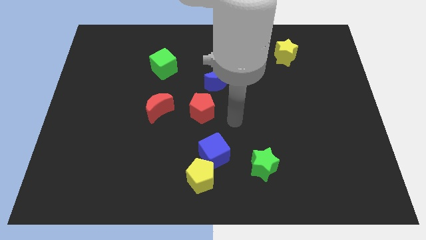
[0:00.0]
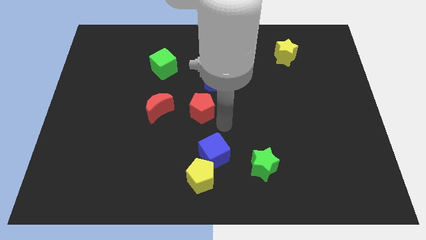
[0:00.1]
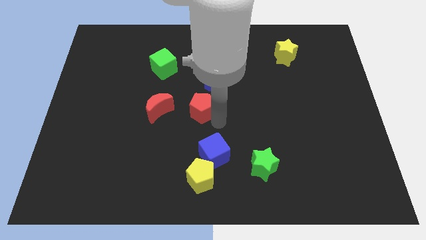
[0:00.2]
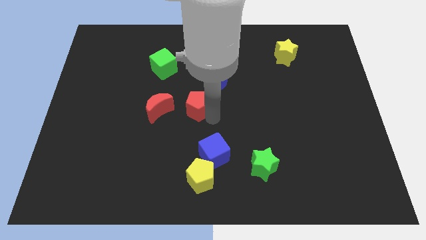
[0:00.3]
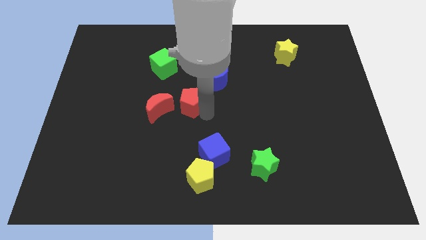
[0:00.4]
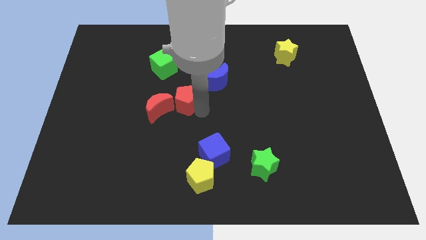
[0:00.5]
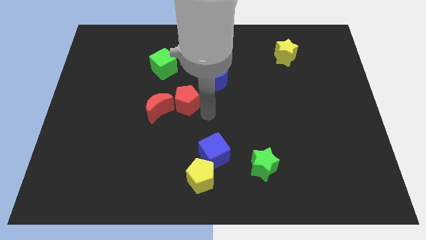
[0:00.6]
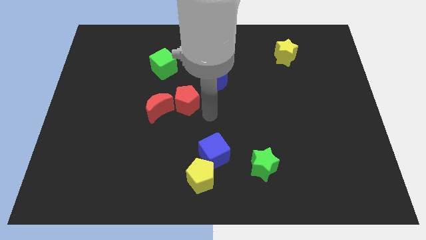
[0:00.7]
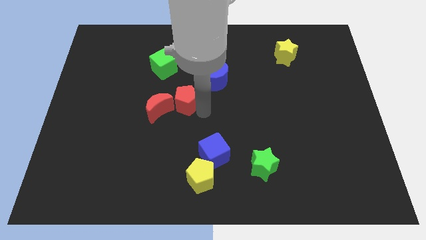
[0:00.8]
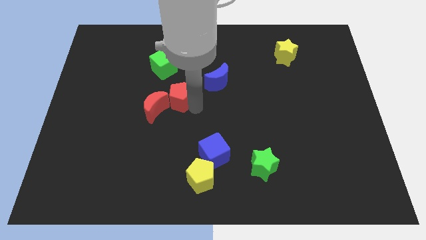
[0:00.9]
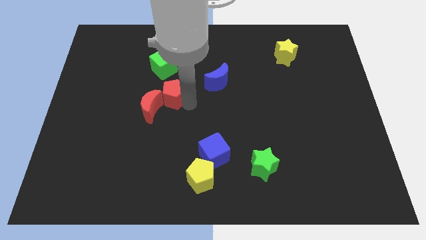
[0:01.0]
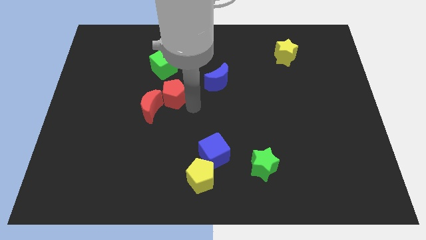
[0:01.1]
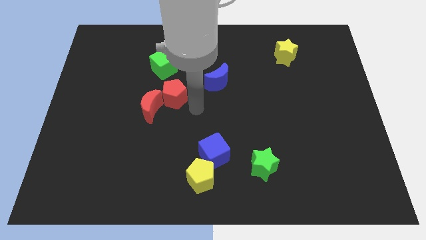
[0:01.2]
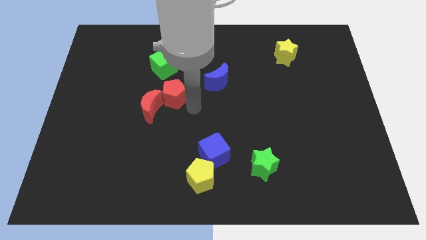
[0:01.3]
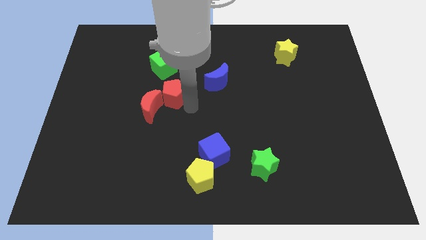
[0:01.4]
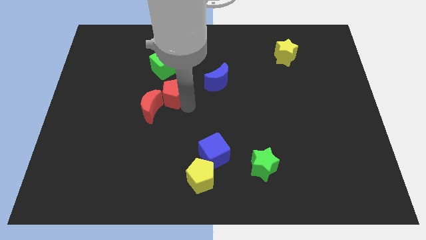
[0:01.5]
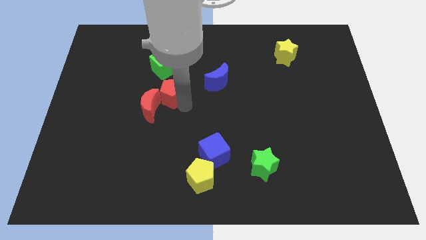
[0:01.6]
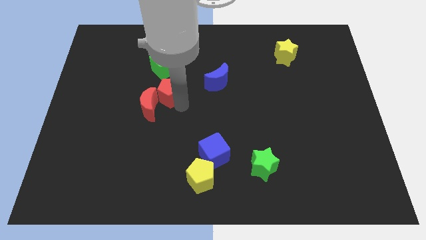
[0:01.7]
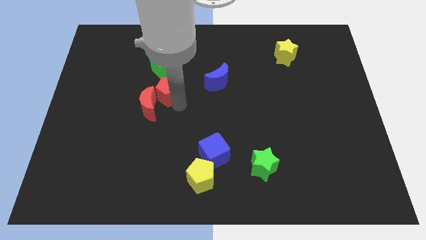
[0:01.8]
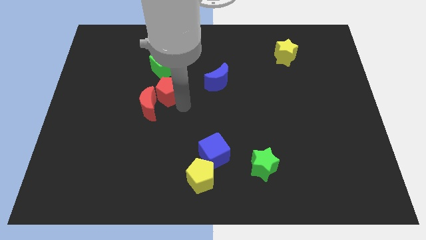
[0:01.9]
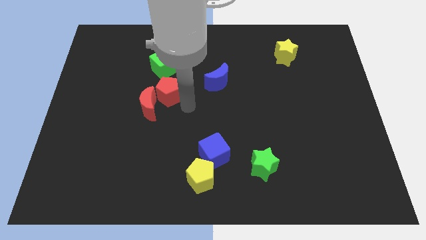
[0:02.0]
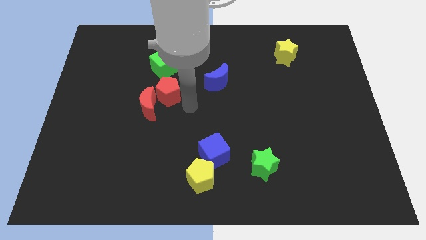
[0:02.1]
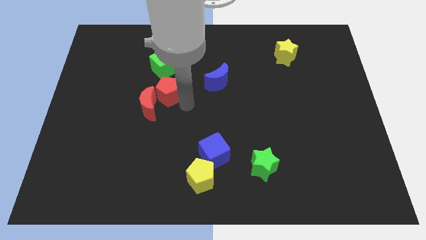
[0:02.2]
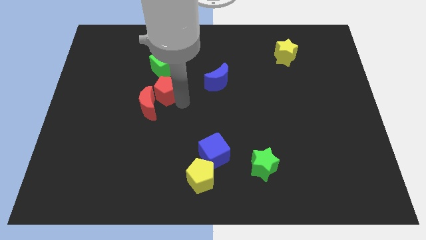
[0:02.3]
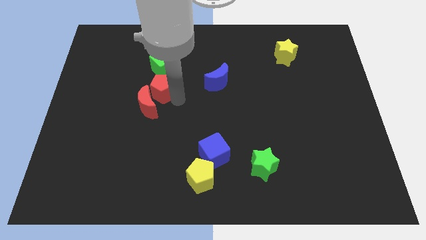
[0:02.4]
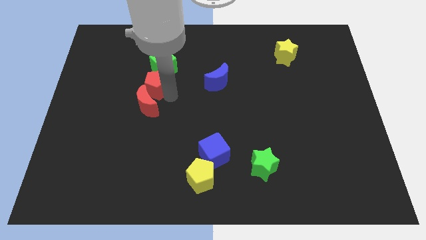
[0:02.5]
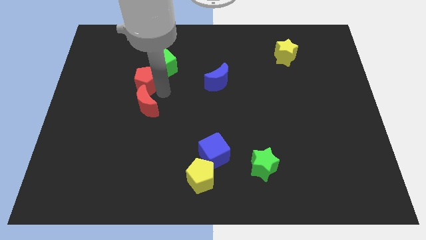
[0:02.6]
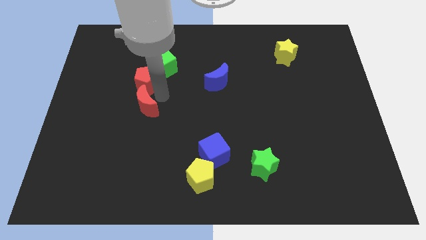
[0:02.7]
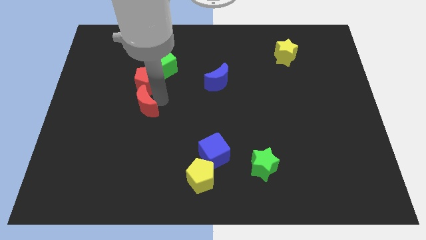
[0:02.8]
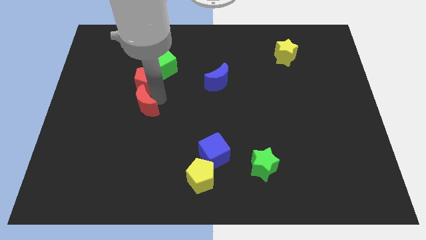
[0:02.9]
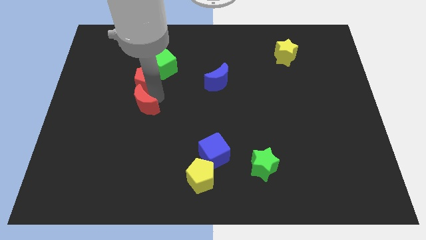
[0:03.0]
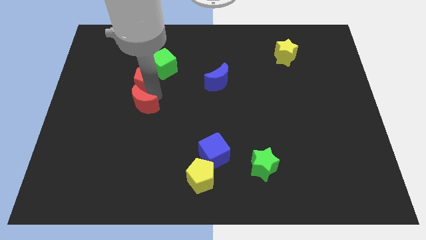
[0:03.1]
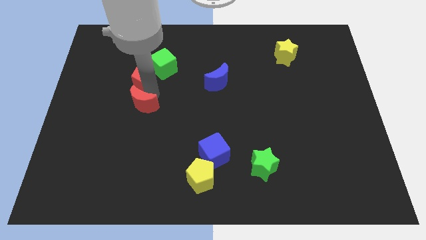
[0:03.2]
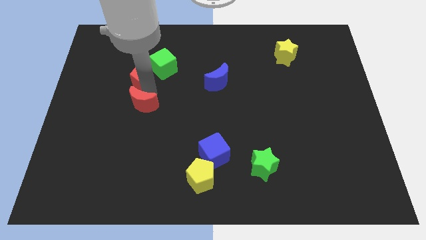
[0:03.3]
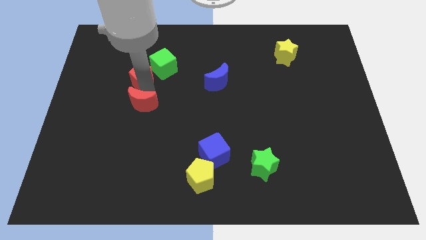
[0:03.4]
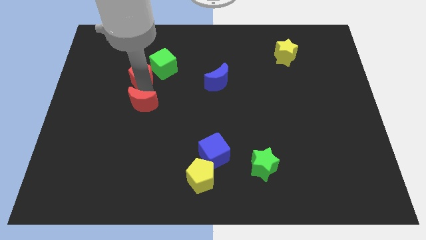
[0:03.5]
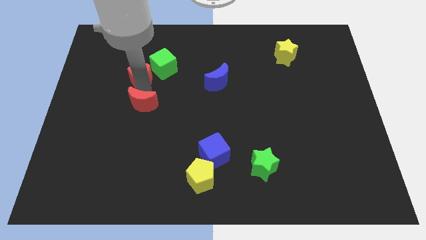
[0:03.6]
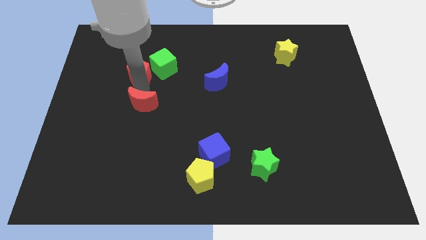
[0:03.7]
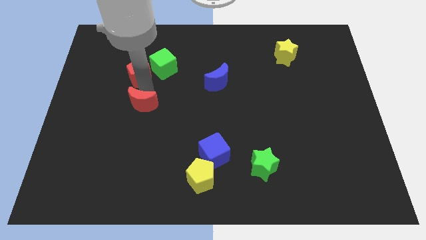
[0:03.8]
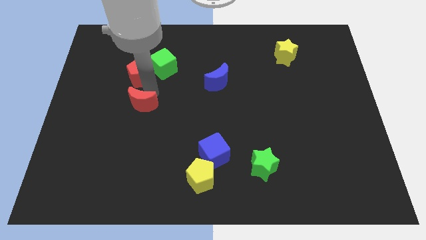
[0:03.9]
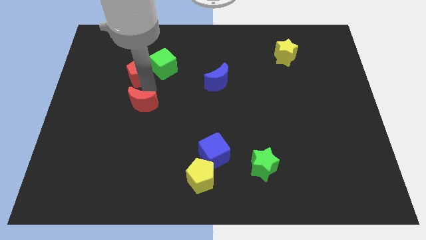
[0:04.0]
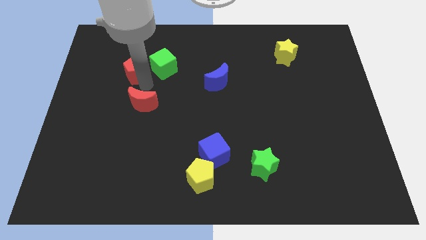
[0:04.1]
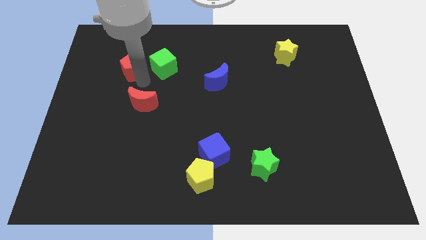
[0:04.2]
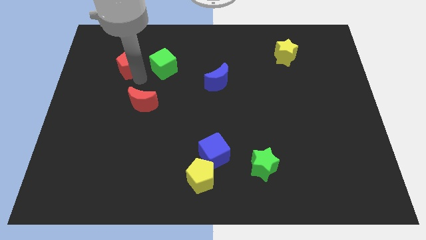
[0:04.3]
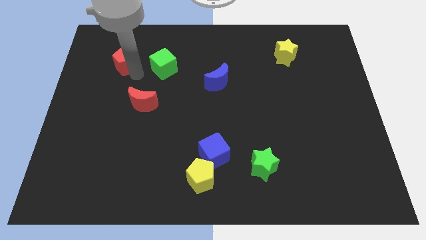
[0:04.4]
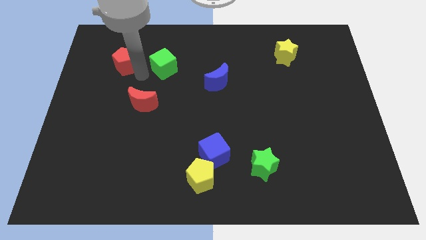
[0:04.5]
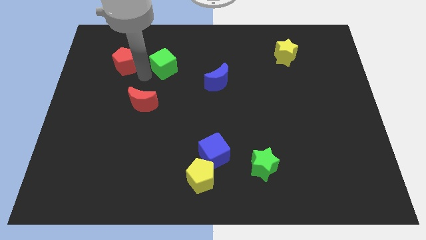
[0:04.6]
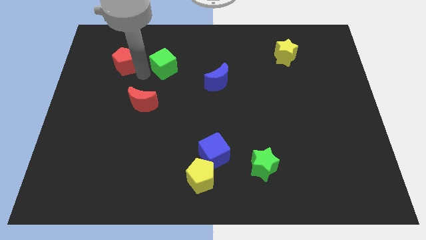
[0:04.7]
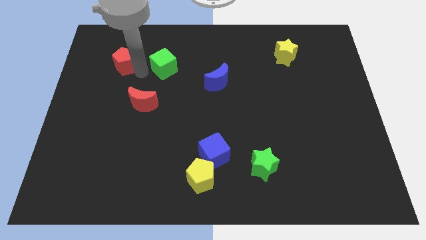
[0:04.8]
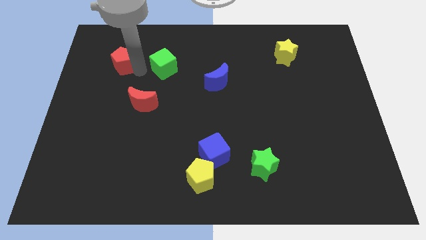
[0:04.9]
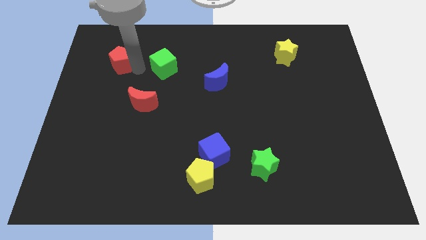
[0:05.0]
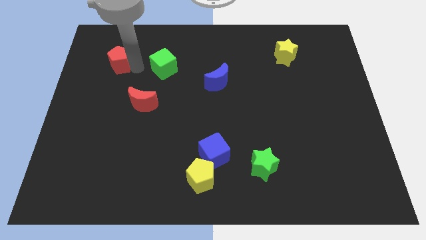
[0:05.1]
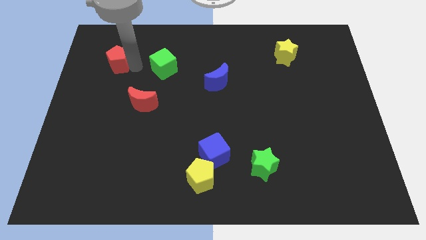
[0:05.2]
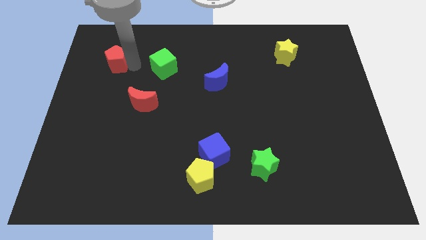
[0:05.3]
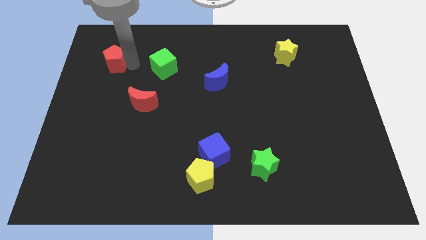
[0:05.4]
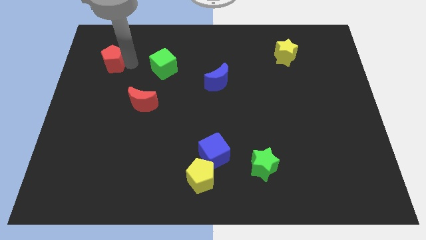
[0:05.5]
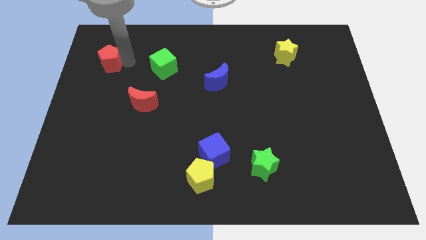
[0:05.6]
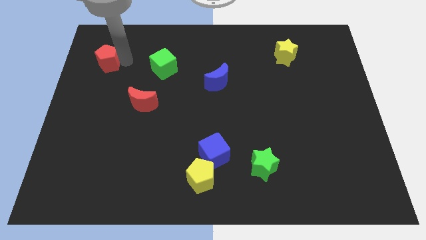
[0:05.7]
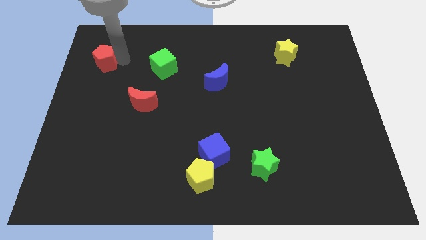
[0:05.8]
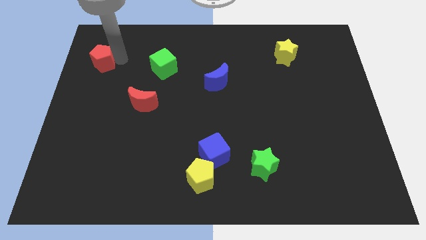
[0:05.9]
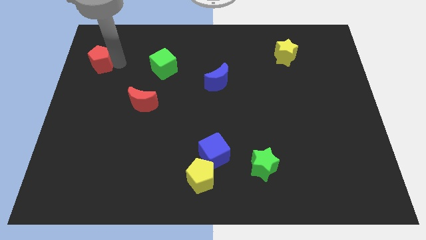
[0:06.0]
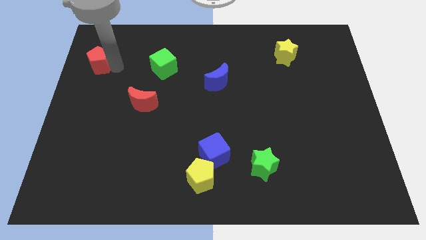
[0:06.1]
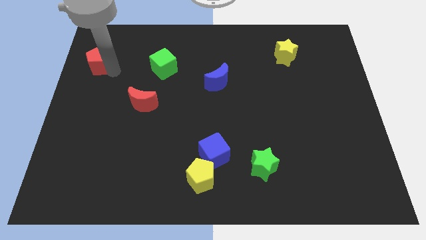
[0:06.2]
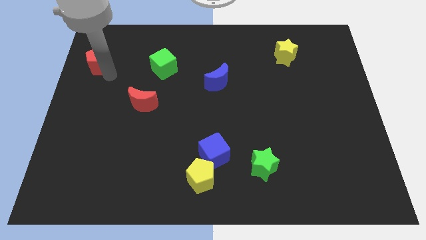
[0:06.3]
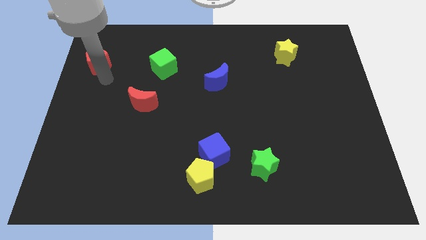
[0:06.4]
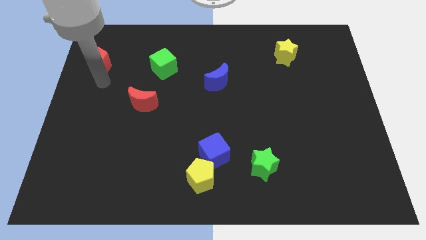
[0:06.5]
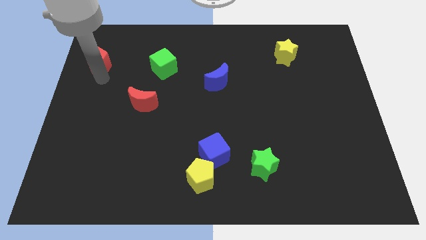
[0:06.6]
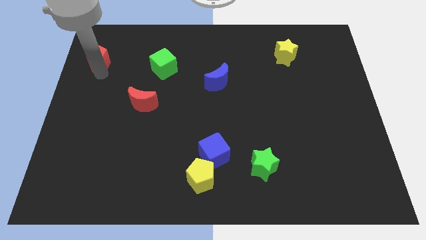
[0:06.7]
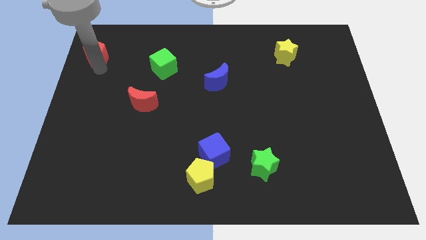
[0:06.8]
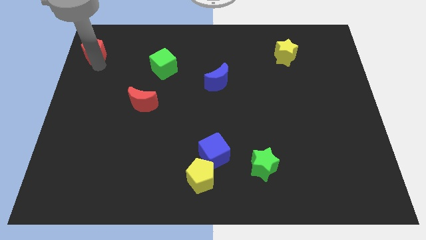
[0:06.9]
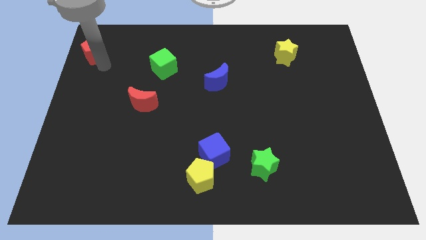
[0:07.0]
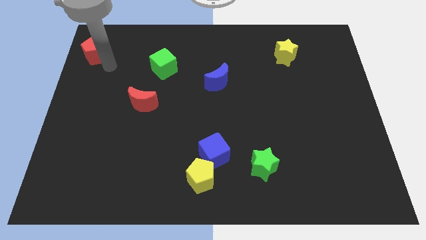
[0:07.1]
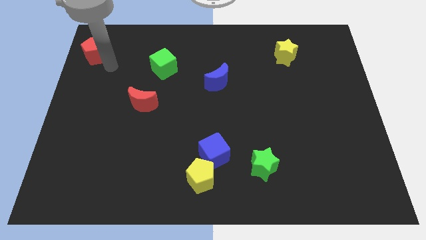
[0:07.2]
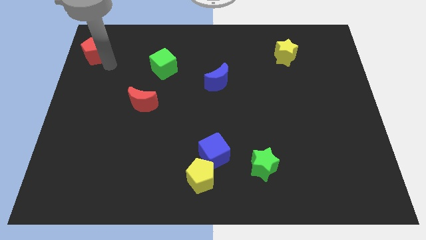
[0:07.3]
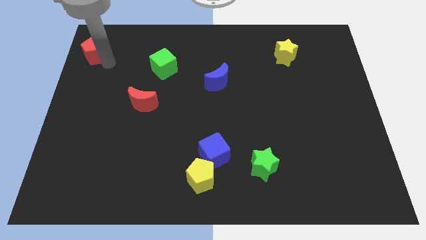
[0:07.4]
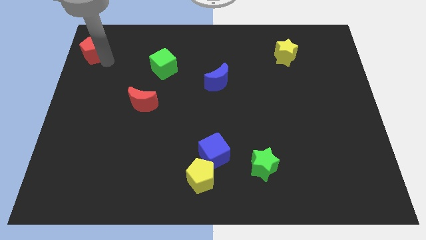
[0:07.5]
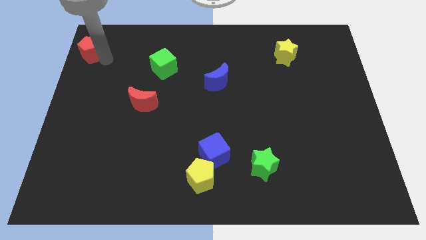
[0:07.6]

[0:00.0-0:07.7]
push the red pentagon to the upper left corner

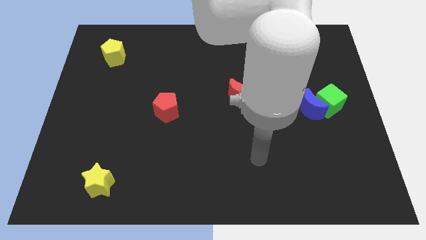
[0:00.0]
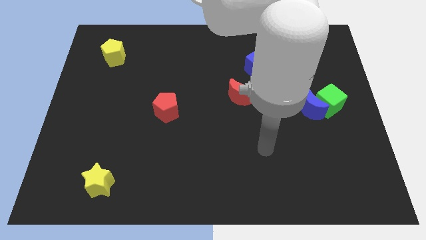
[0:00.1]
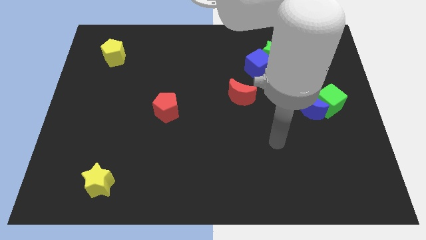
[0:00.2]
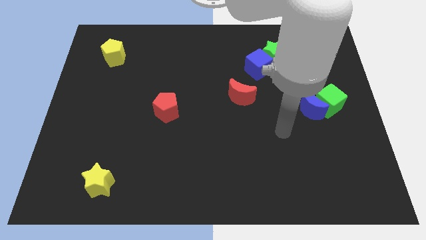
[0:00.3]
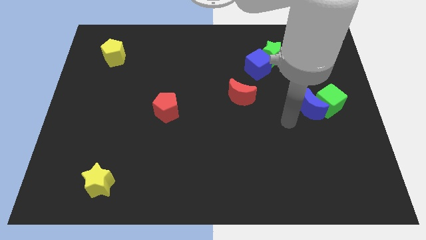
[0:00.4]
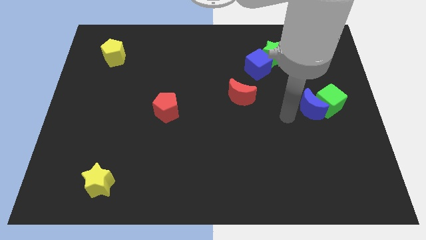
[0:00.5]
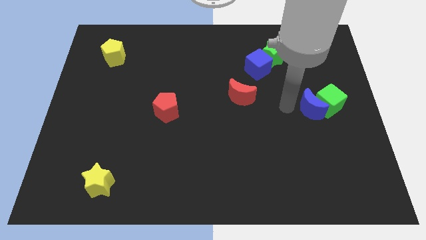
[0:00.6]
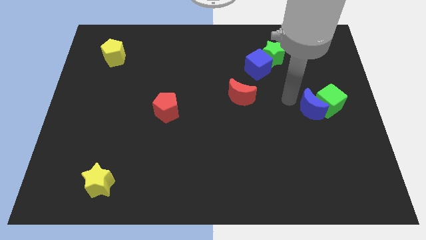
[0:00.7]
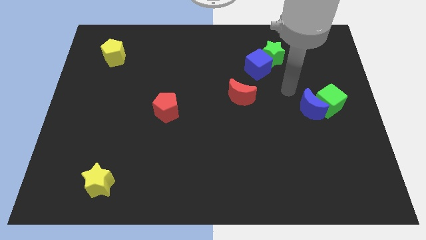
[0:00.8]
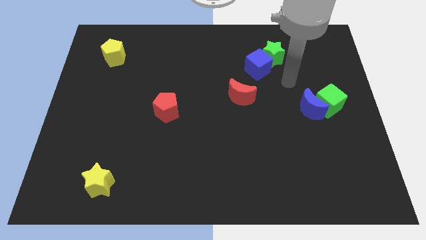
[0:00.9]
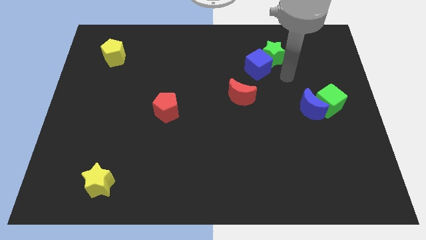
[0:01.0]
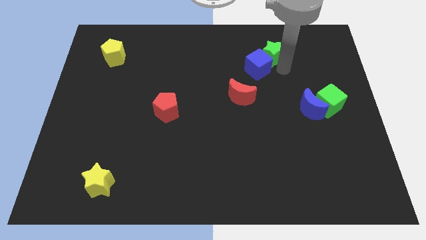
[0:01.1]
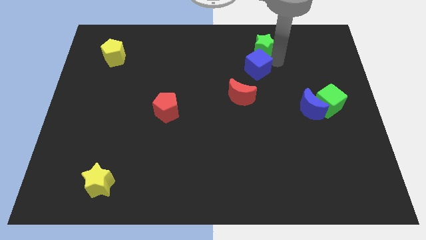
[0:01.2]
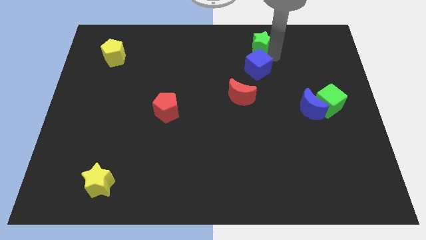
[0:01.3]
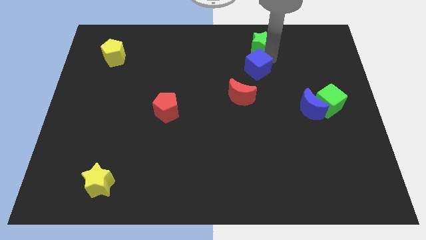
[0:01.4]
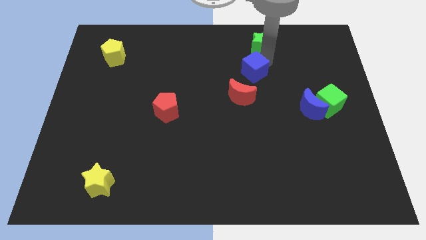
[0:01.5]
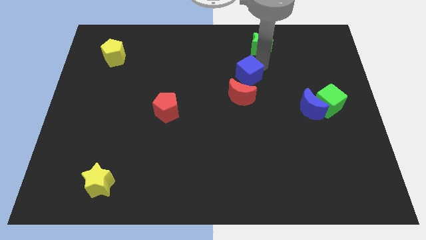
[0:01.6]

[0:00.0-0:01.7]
move the blue cube to the center of the board
